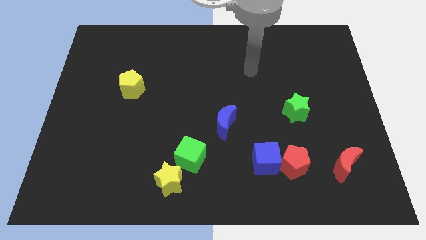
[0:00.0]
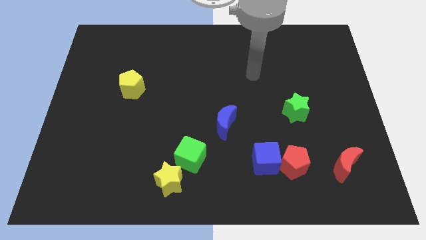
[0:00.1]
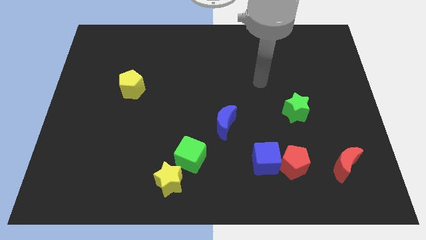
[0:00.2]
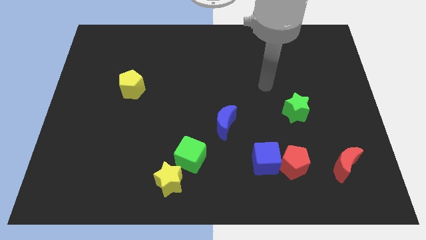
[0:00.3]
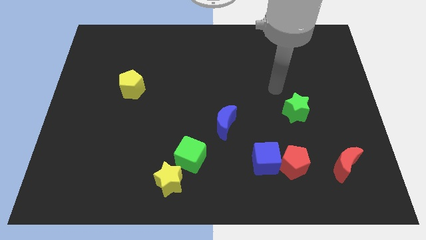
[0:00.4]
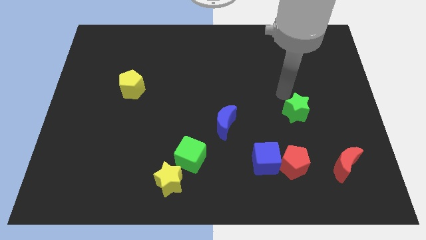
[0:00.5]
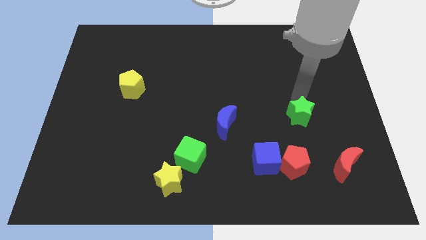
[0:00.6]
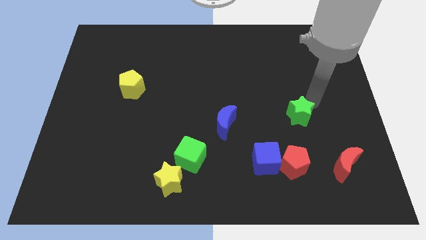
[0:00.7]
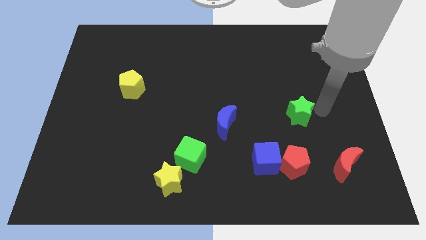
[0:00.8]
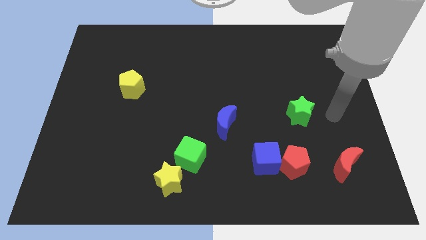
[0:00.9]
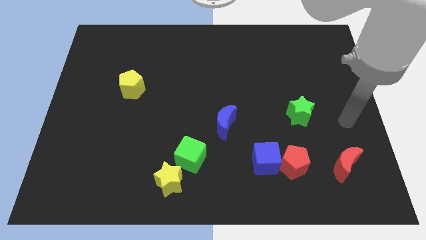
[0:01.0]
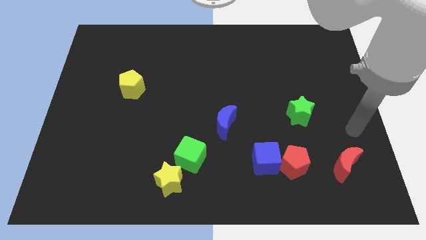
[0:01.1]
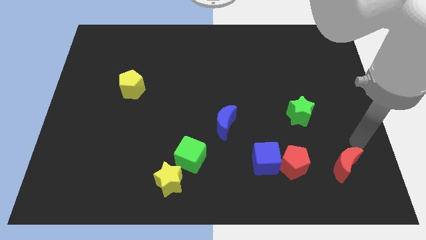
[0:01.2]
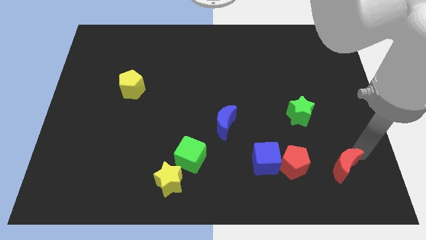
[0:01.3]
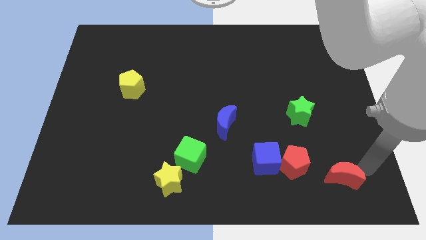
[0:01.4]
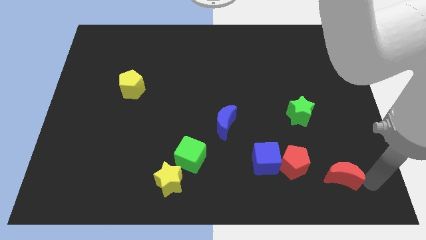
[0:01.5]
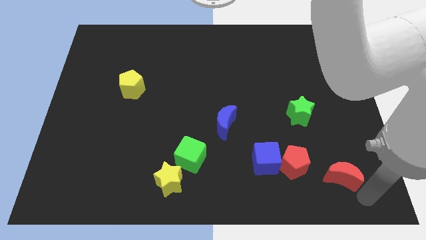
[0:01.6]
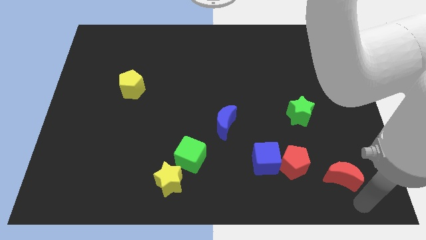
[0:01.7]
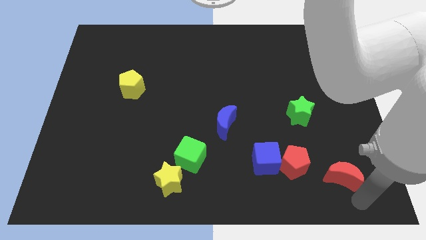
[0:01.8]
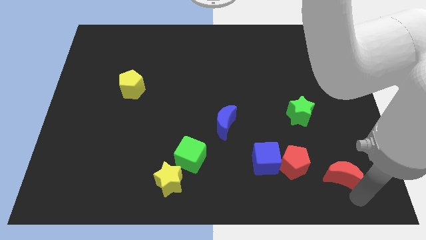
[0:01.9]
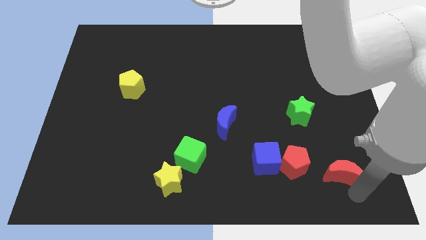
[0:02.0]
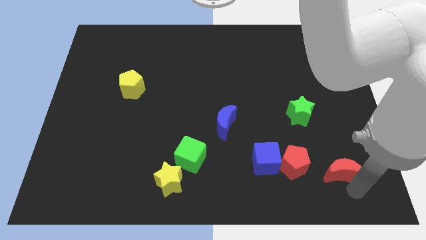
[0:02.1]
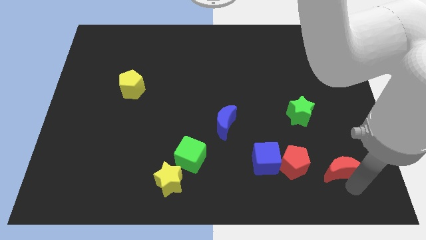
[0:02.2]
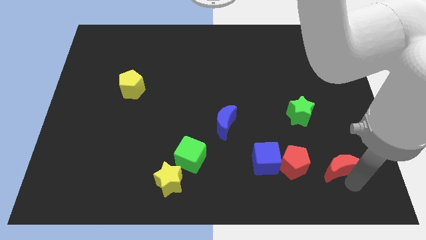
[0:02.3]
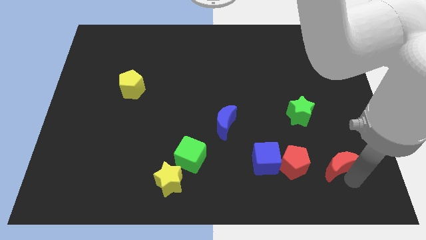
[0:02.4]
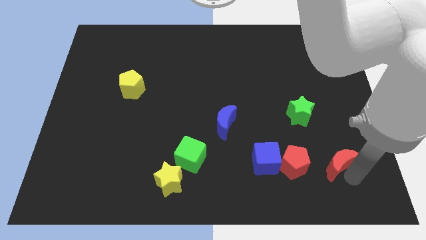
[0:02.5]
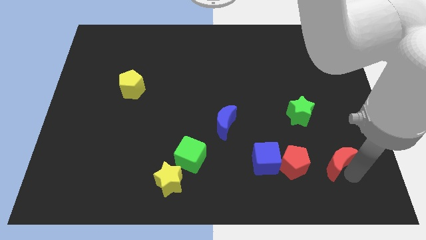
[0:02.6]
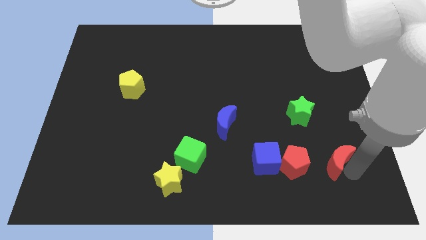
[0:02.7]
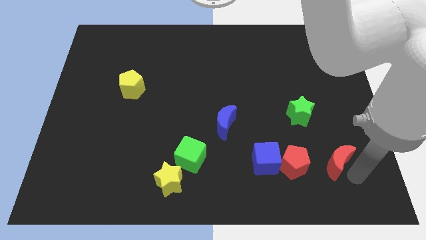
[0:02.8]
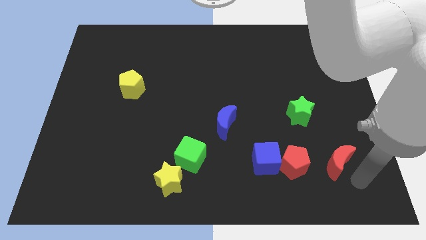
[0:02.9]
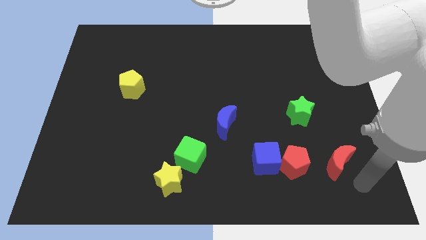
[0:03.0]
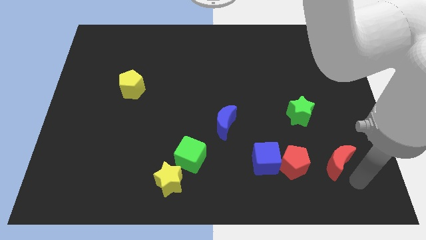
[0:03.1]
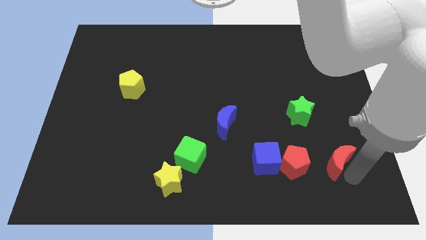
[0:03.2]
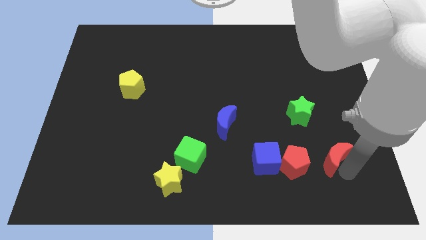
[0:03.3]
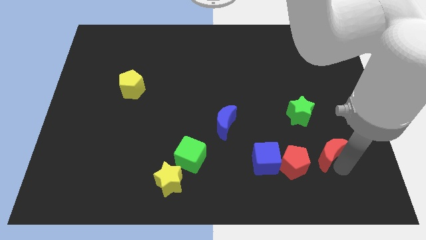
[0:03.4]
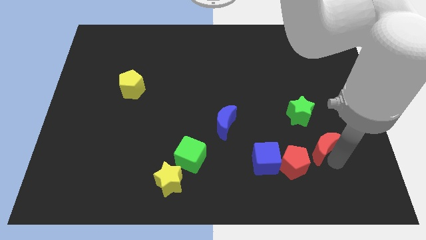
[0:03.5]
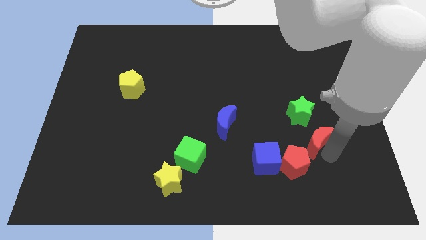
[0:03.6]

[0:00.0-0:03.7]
move the red moon a little upwards and to the left

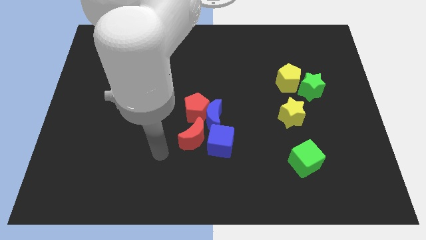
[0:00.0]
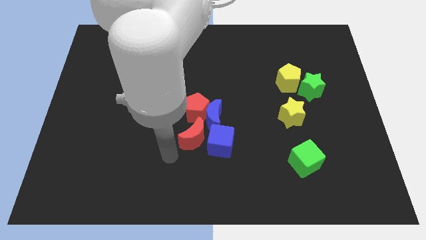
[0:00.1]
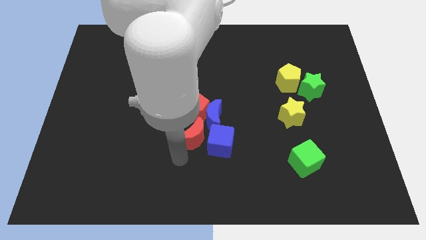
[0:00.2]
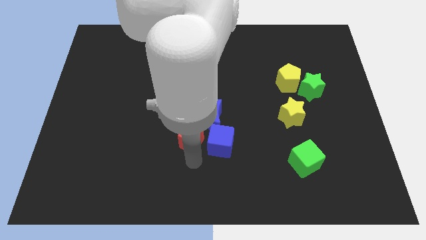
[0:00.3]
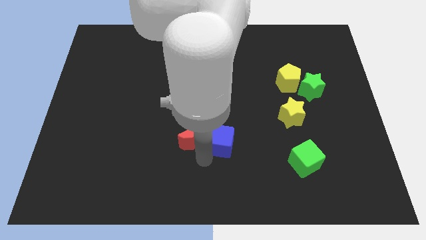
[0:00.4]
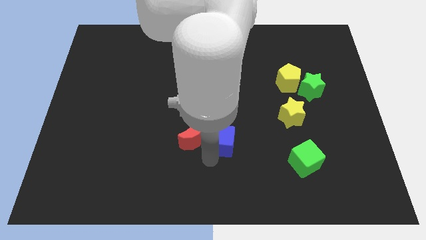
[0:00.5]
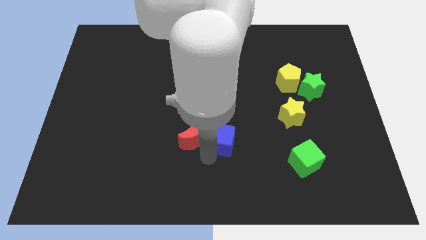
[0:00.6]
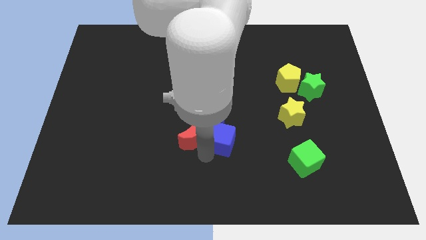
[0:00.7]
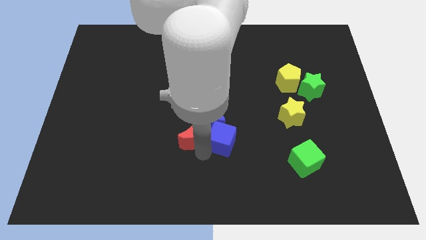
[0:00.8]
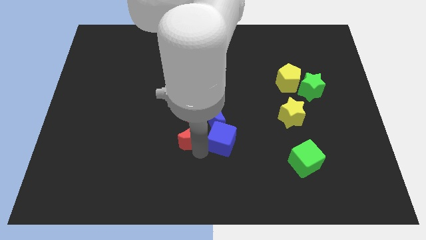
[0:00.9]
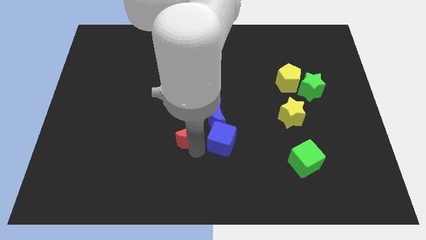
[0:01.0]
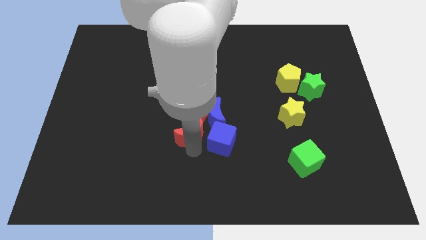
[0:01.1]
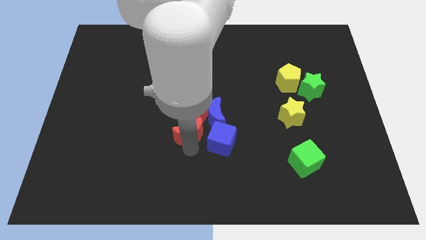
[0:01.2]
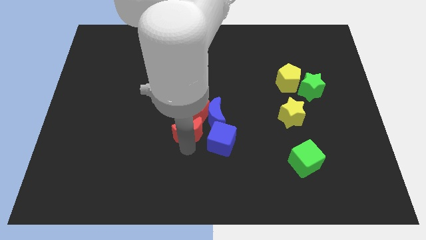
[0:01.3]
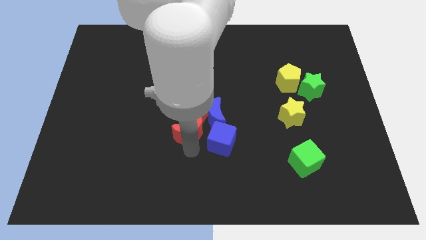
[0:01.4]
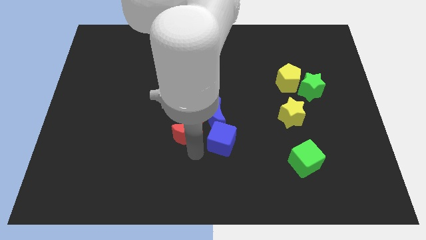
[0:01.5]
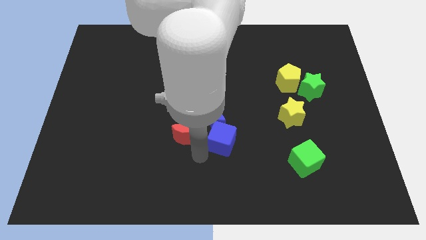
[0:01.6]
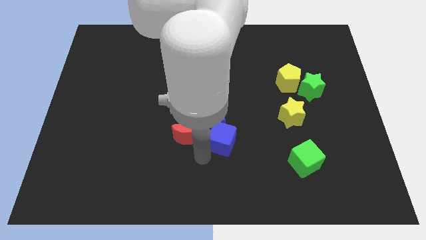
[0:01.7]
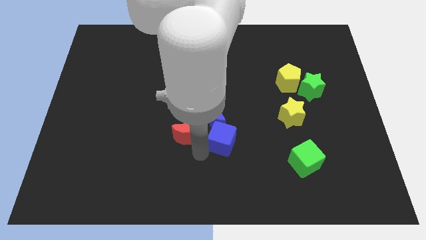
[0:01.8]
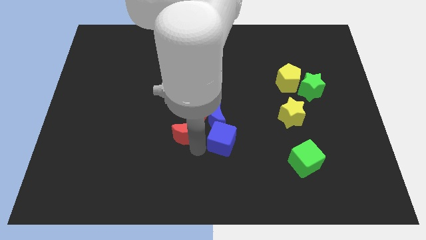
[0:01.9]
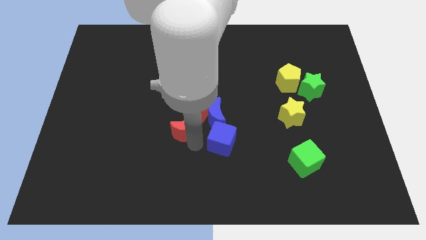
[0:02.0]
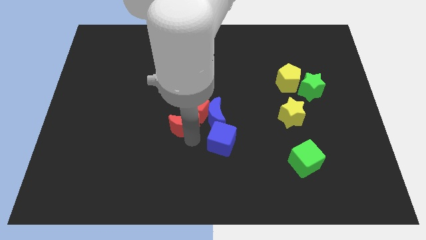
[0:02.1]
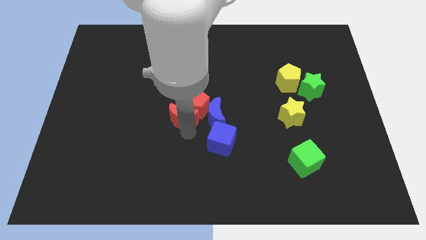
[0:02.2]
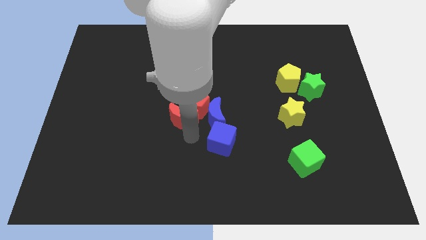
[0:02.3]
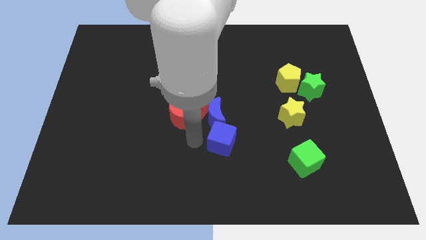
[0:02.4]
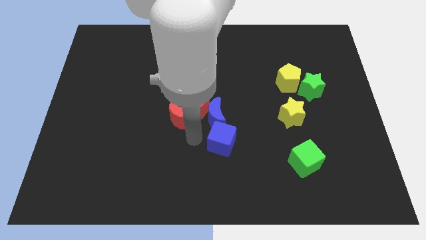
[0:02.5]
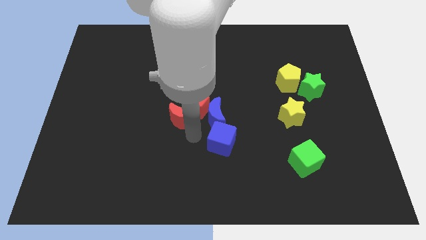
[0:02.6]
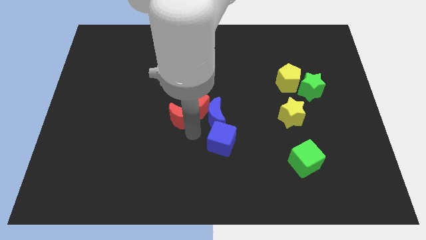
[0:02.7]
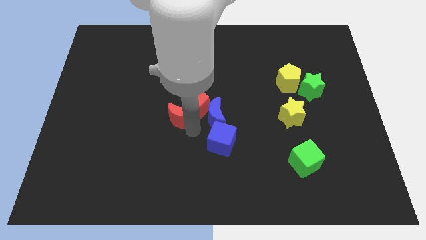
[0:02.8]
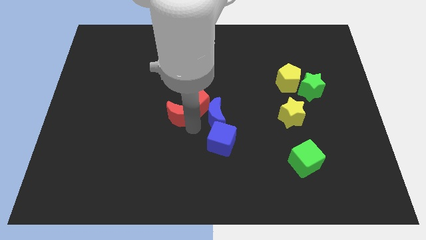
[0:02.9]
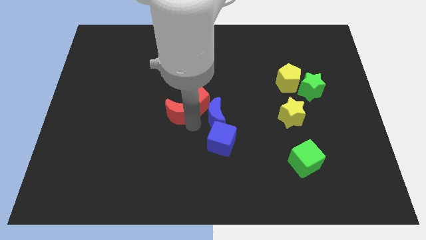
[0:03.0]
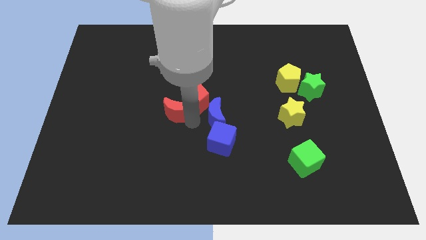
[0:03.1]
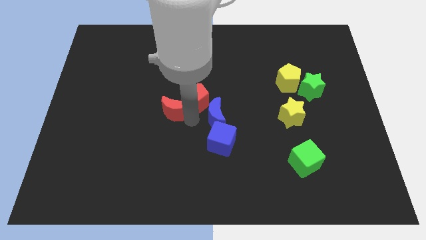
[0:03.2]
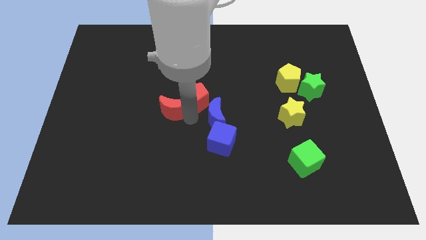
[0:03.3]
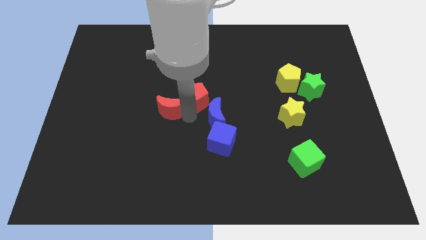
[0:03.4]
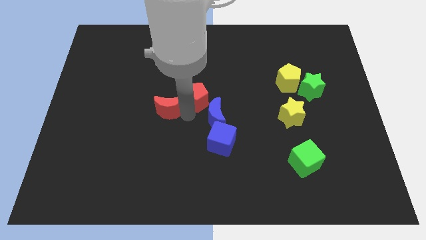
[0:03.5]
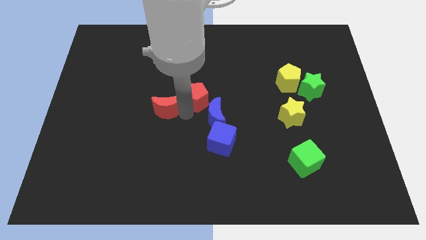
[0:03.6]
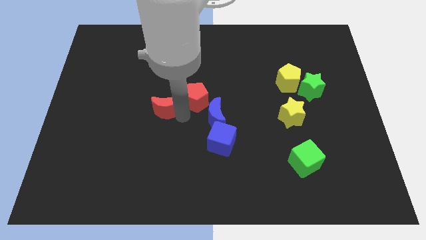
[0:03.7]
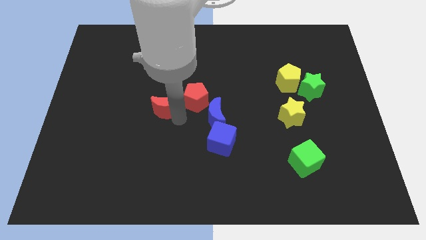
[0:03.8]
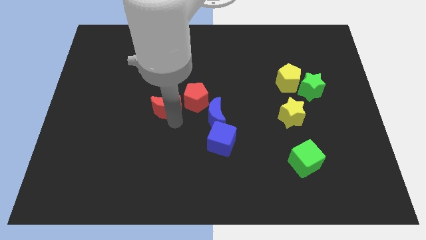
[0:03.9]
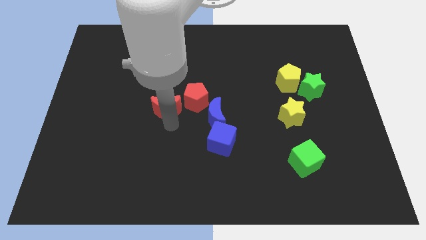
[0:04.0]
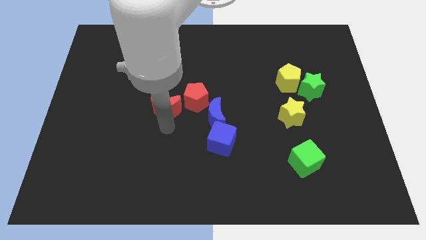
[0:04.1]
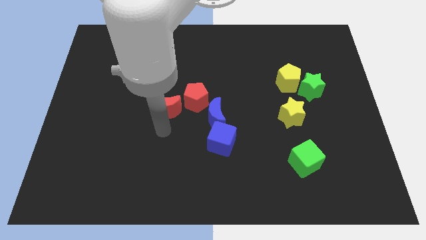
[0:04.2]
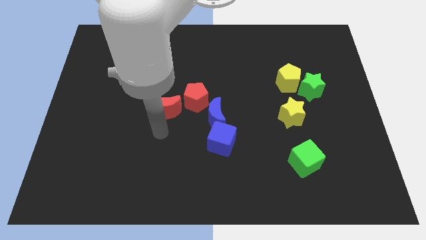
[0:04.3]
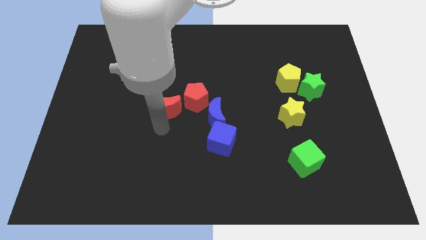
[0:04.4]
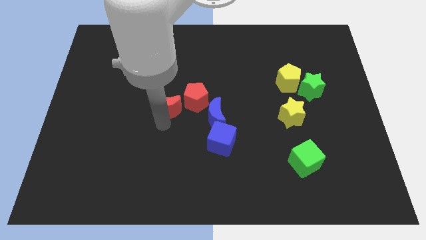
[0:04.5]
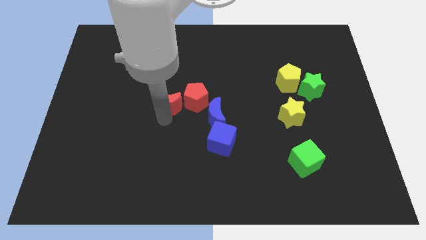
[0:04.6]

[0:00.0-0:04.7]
slide the red moon up a bit
